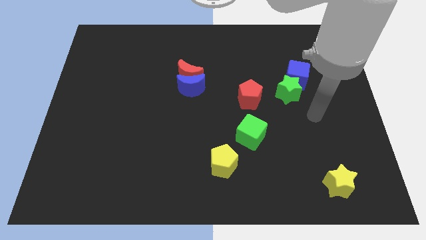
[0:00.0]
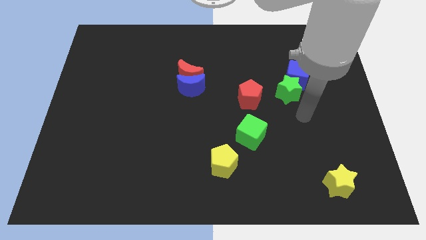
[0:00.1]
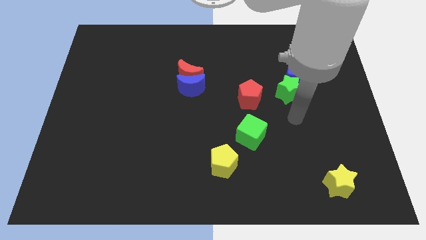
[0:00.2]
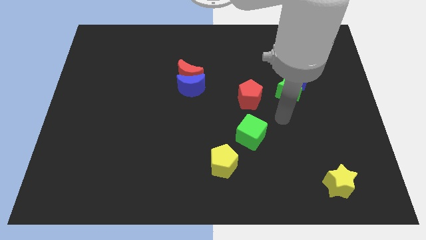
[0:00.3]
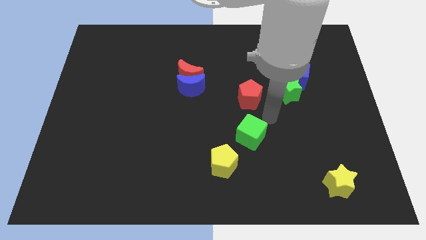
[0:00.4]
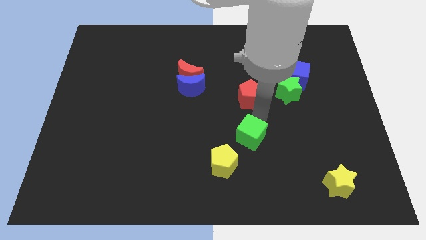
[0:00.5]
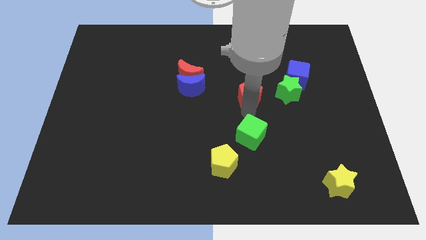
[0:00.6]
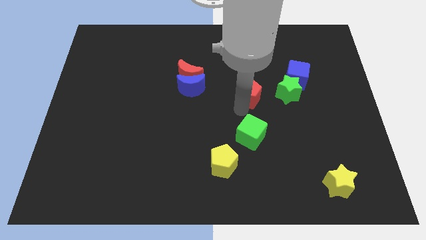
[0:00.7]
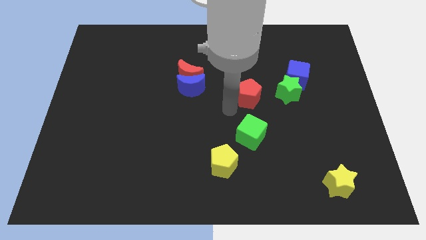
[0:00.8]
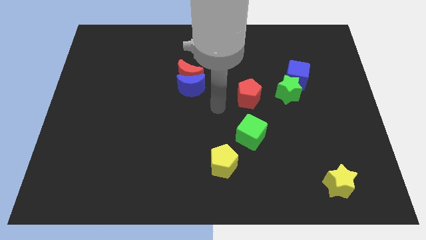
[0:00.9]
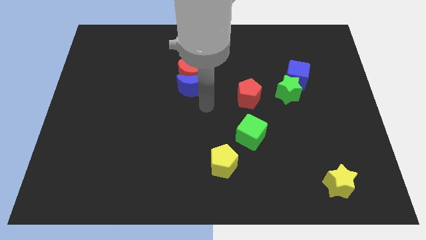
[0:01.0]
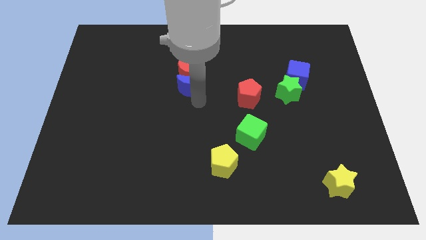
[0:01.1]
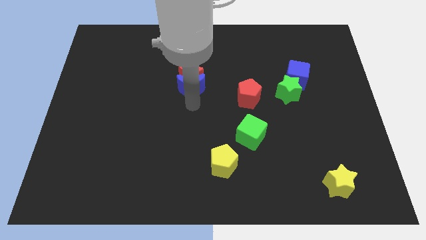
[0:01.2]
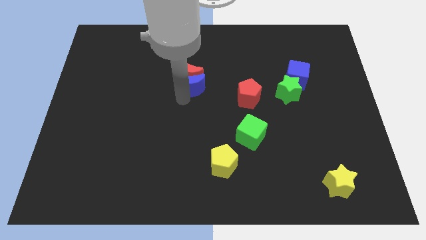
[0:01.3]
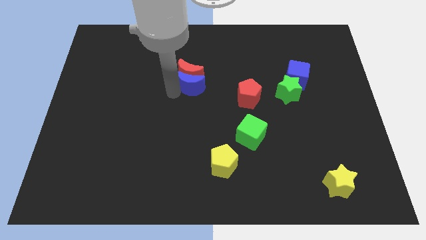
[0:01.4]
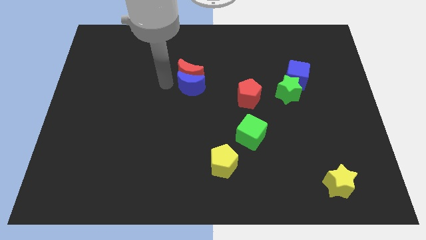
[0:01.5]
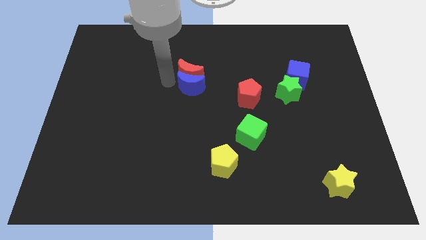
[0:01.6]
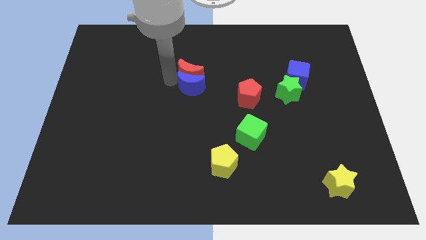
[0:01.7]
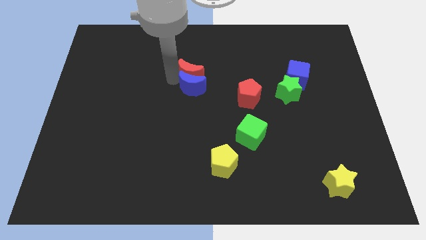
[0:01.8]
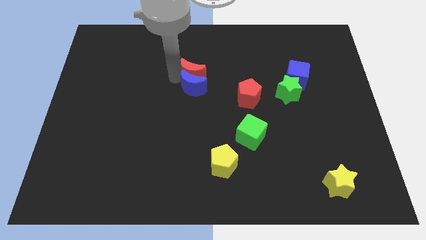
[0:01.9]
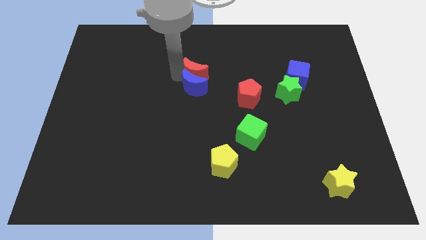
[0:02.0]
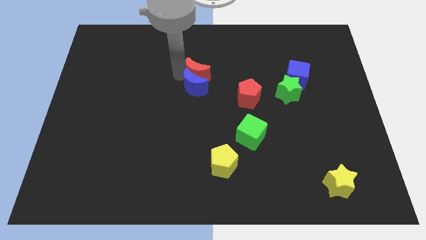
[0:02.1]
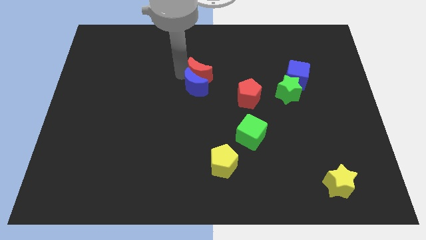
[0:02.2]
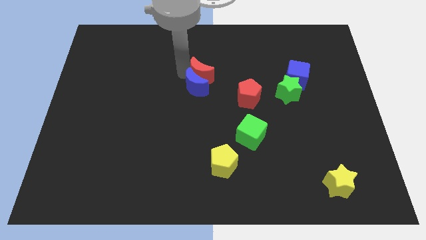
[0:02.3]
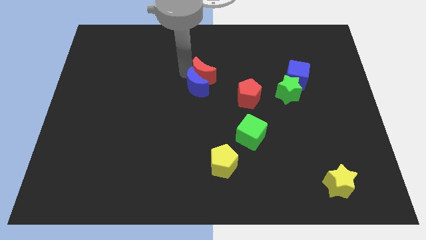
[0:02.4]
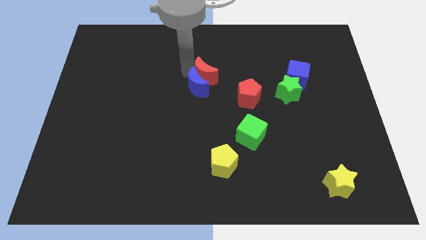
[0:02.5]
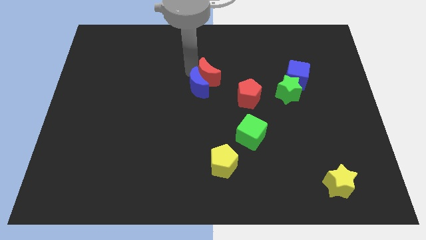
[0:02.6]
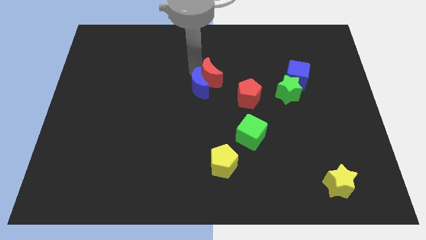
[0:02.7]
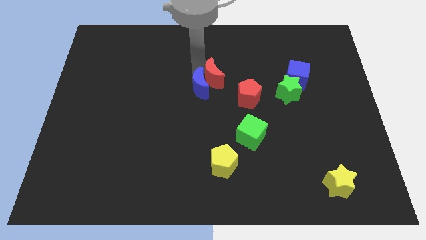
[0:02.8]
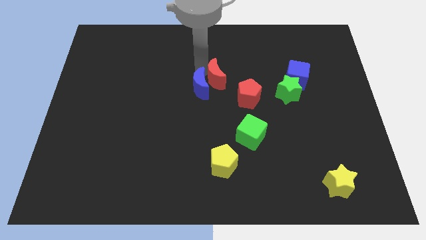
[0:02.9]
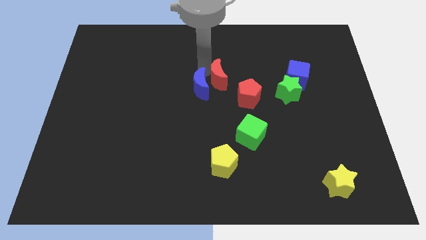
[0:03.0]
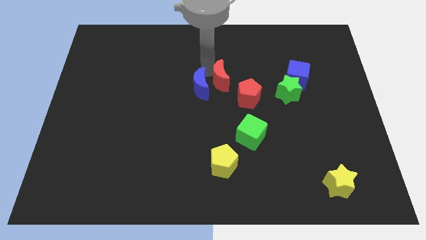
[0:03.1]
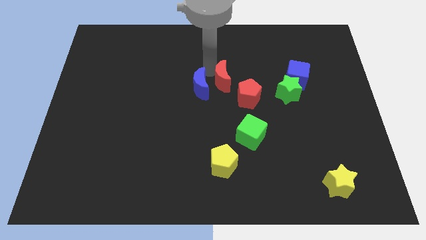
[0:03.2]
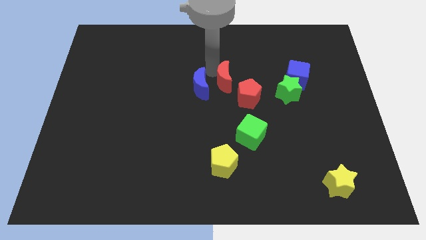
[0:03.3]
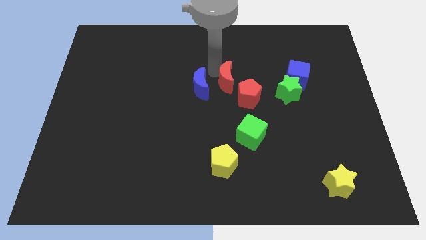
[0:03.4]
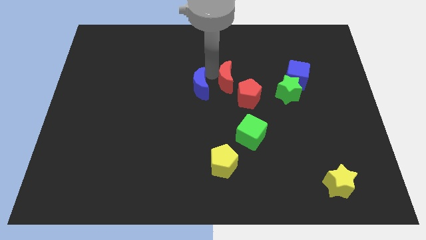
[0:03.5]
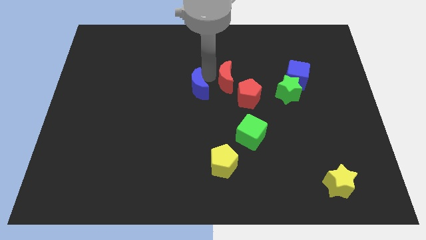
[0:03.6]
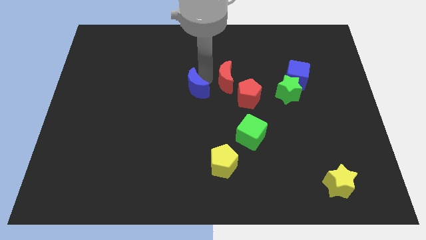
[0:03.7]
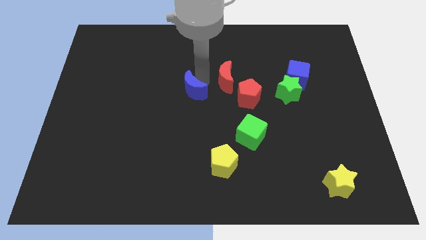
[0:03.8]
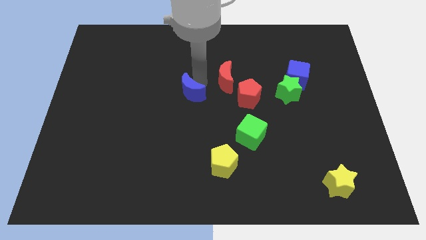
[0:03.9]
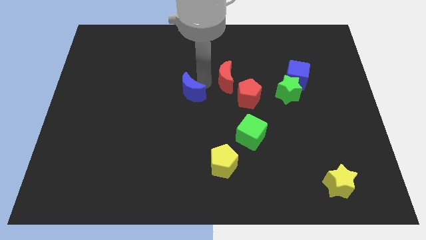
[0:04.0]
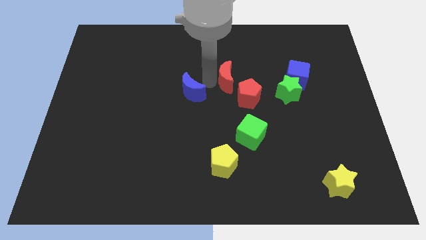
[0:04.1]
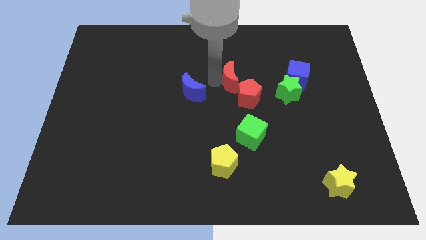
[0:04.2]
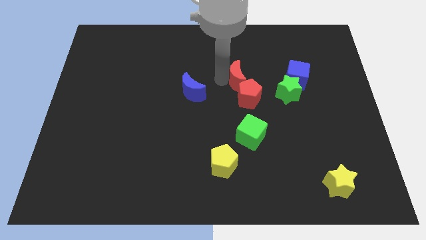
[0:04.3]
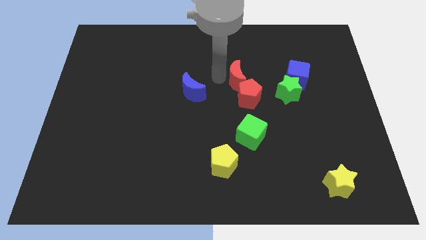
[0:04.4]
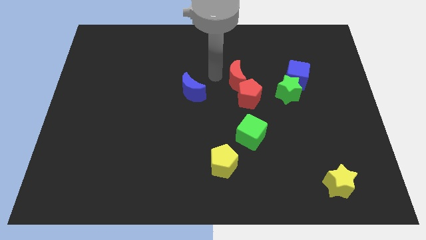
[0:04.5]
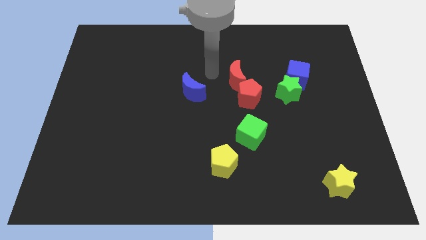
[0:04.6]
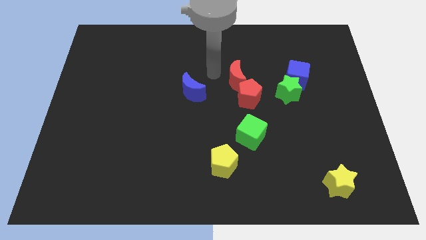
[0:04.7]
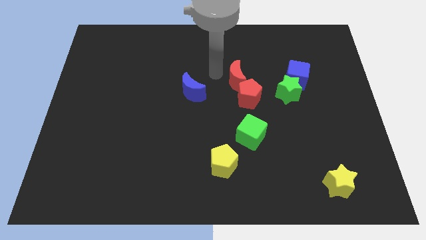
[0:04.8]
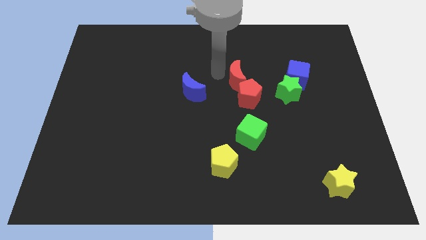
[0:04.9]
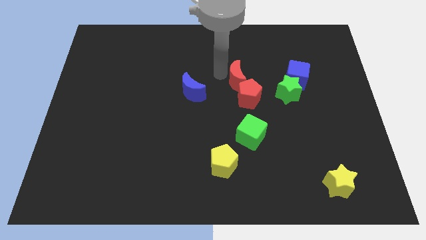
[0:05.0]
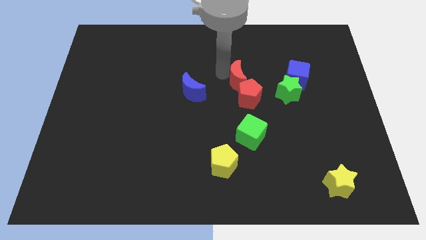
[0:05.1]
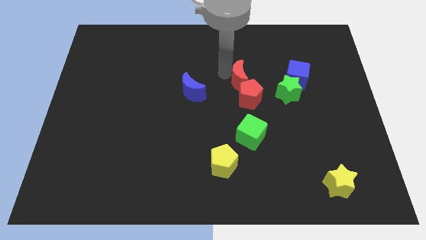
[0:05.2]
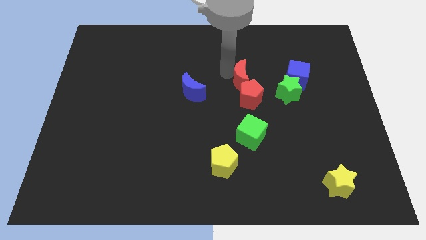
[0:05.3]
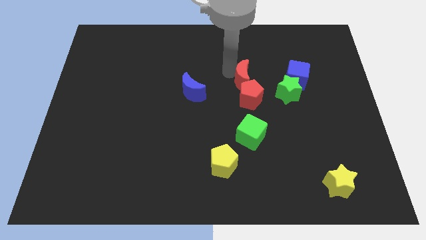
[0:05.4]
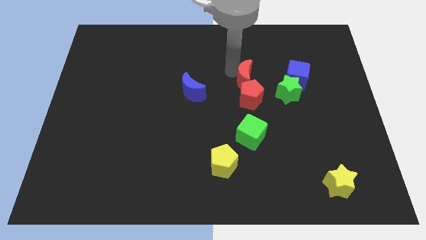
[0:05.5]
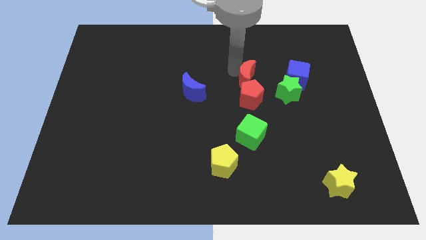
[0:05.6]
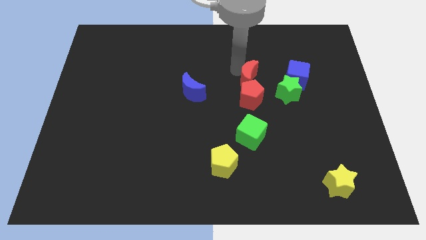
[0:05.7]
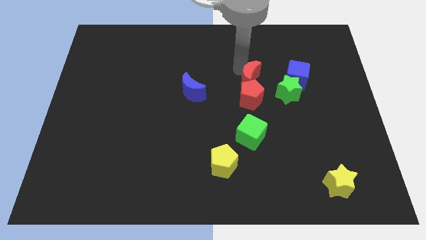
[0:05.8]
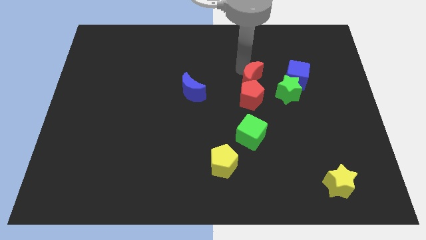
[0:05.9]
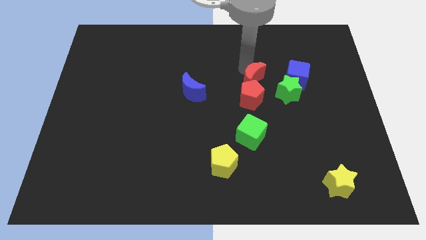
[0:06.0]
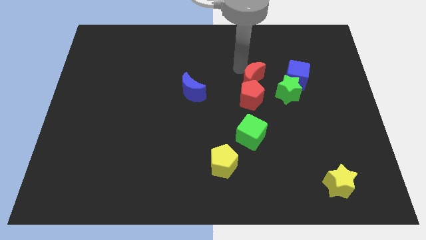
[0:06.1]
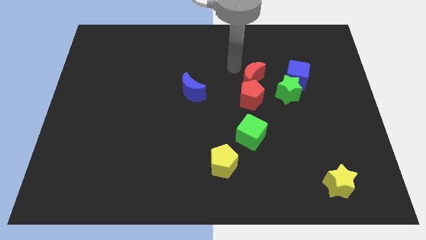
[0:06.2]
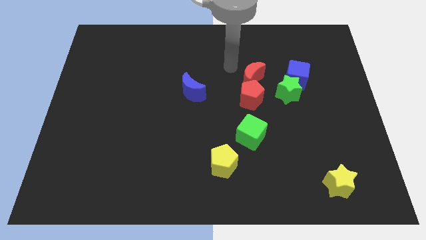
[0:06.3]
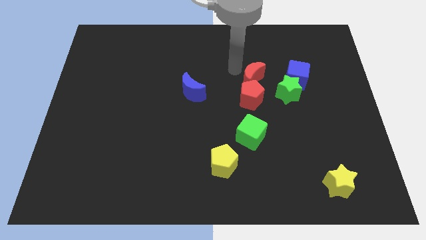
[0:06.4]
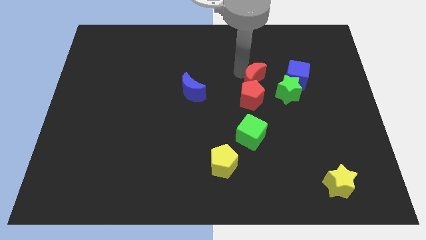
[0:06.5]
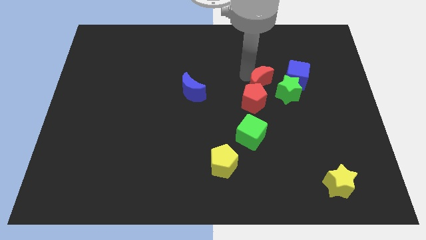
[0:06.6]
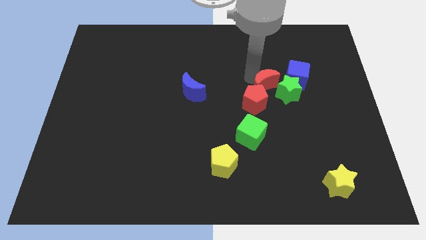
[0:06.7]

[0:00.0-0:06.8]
put the red moon to the green star

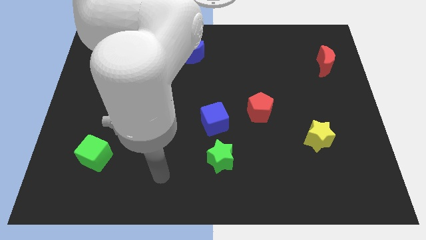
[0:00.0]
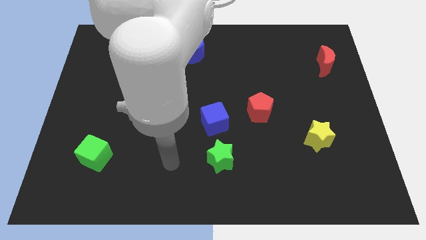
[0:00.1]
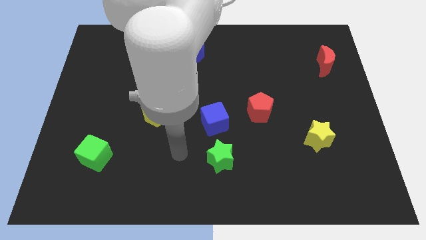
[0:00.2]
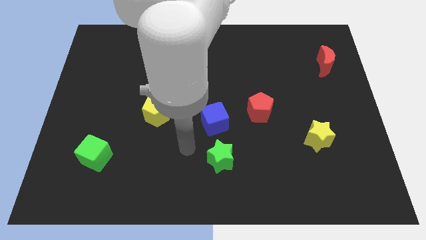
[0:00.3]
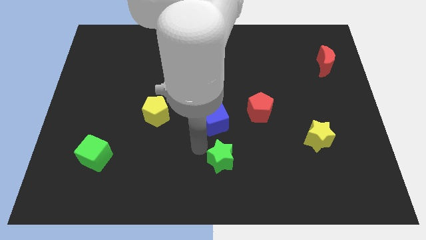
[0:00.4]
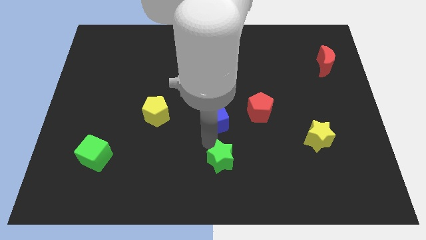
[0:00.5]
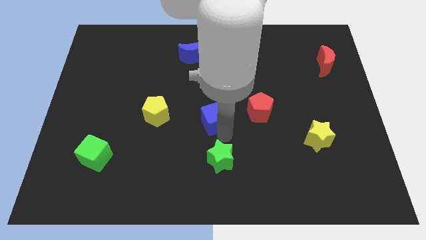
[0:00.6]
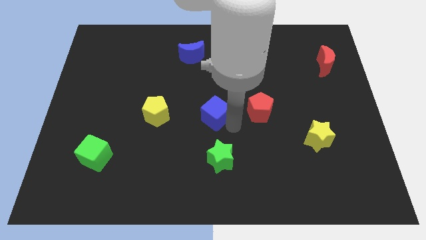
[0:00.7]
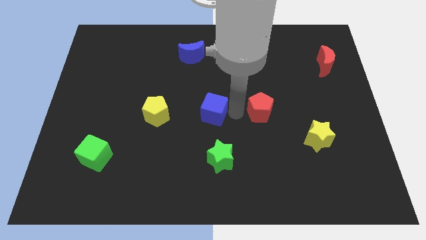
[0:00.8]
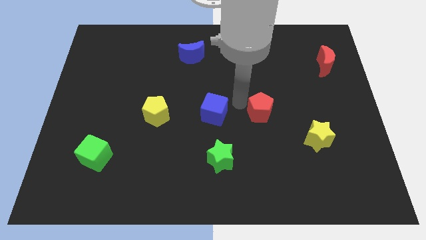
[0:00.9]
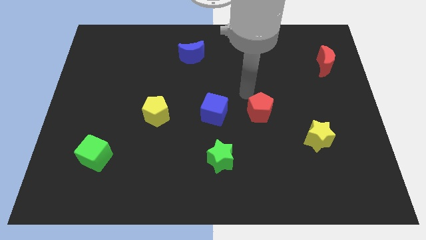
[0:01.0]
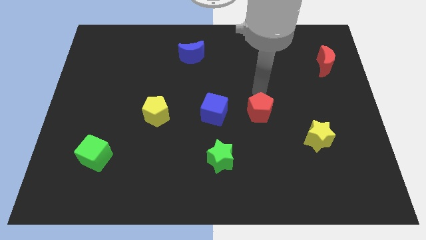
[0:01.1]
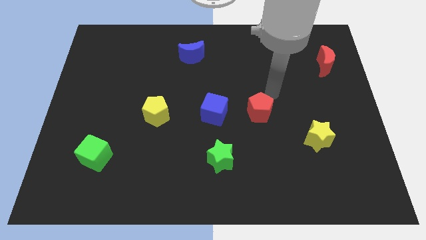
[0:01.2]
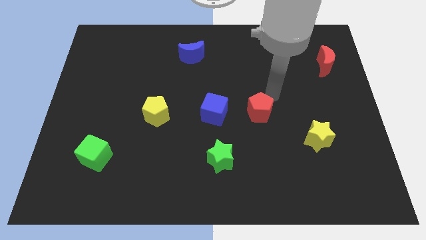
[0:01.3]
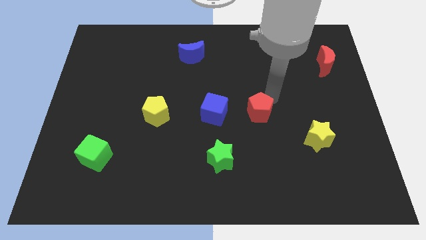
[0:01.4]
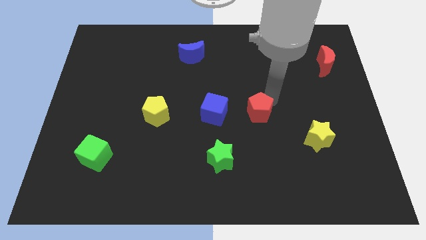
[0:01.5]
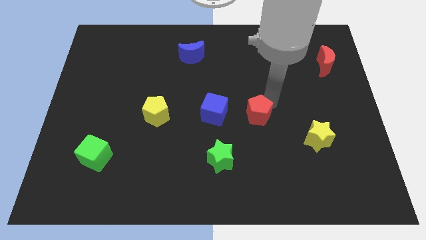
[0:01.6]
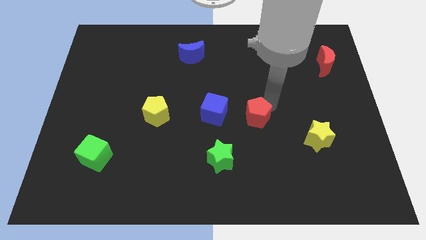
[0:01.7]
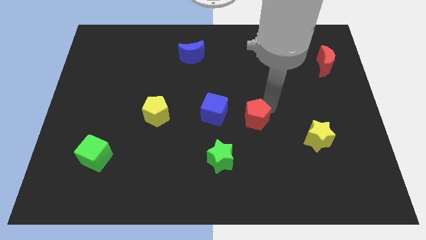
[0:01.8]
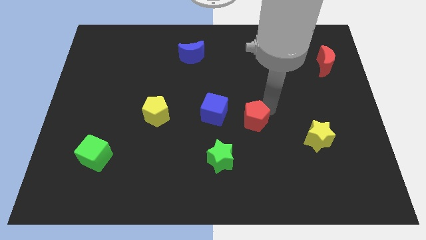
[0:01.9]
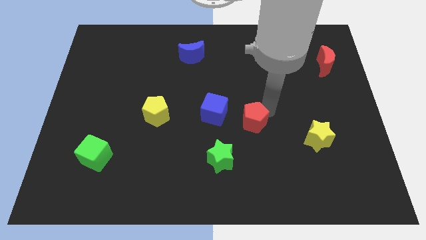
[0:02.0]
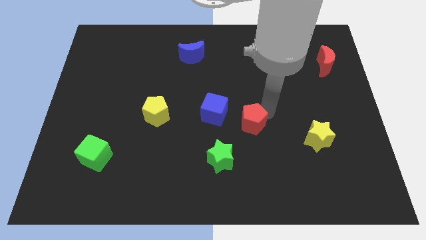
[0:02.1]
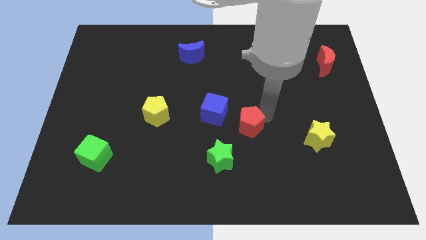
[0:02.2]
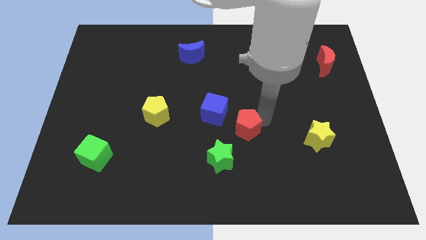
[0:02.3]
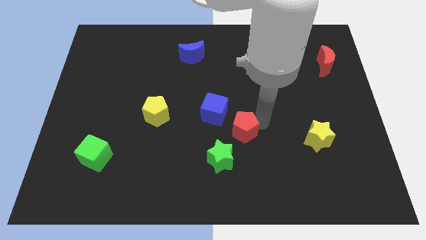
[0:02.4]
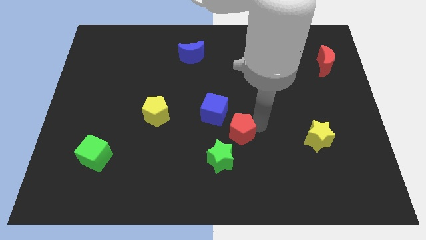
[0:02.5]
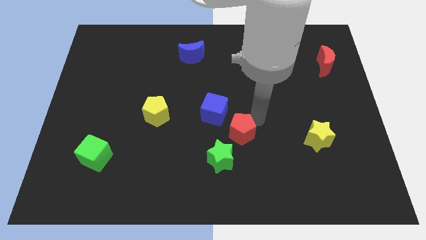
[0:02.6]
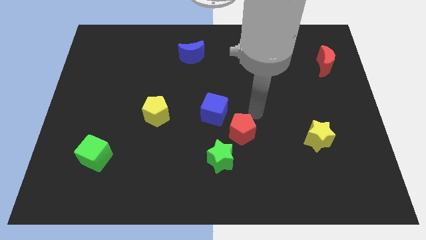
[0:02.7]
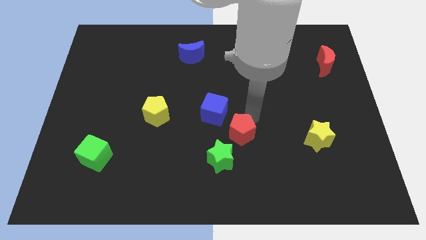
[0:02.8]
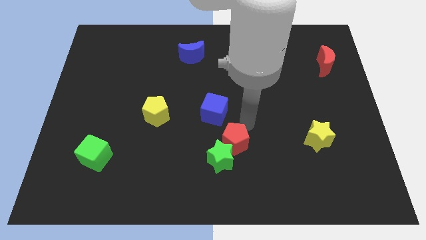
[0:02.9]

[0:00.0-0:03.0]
push the red pentagon next to the green star
